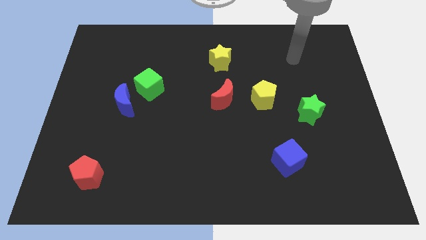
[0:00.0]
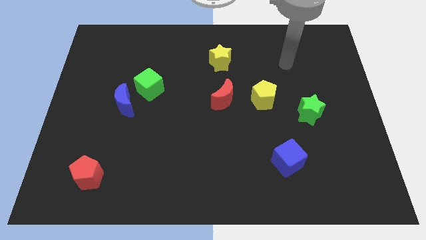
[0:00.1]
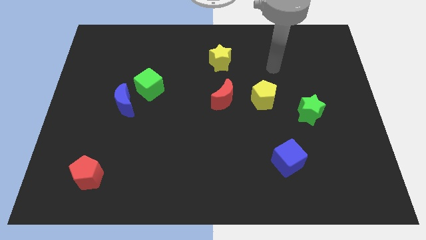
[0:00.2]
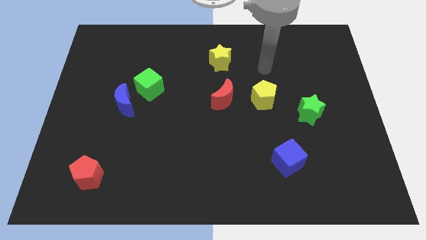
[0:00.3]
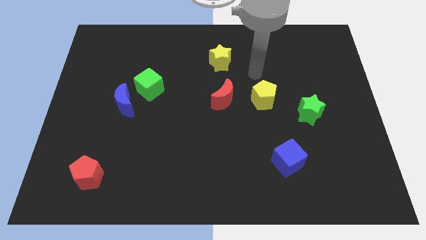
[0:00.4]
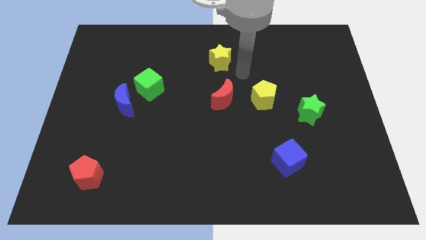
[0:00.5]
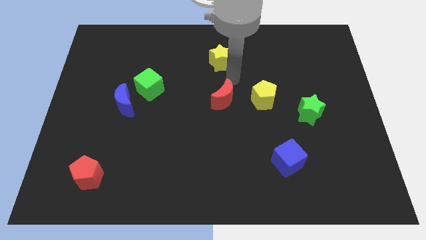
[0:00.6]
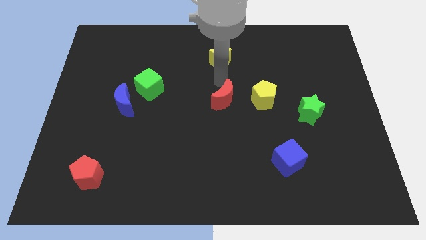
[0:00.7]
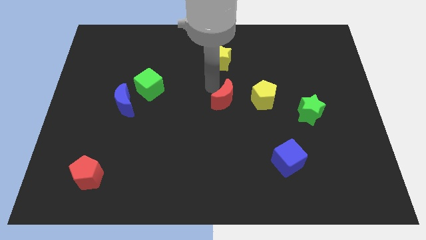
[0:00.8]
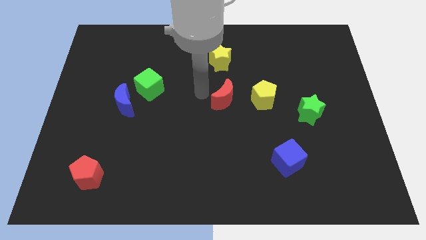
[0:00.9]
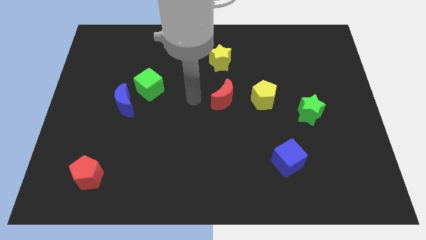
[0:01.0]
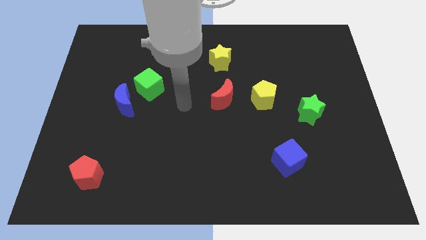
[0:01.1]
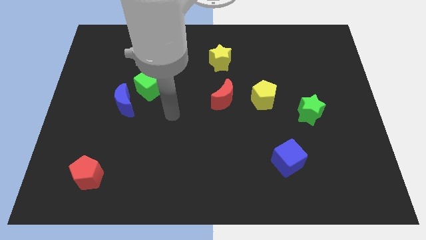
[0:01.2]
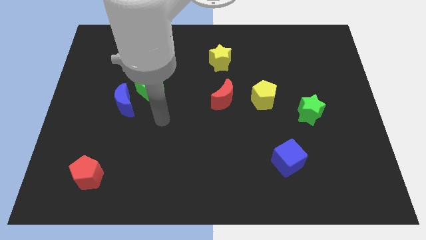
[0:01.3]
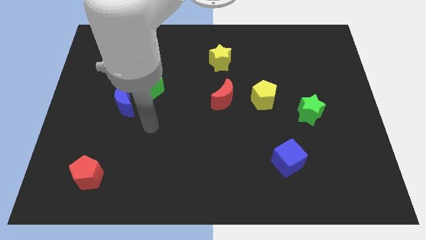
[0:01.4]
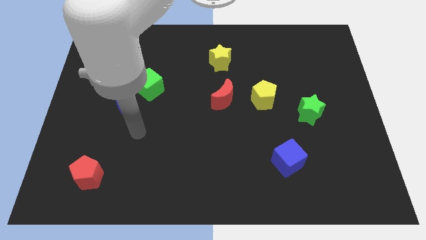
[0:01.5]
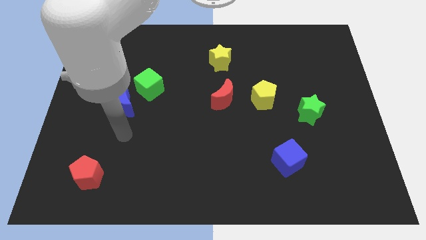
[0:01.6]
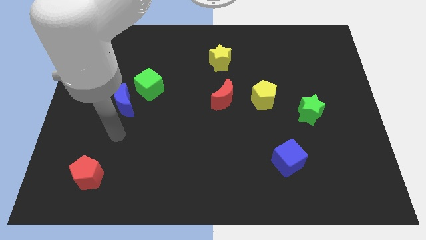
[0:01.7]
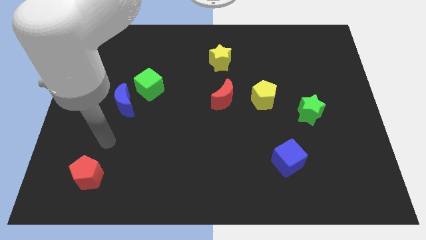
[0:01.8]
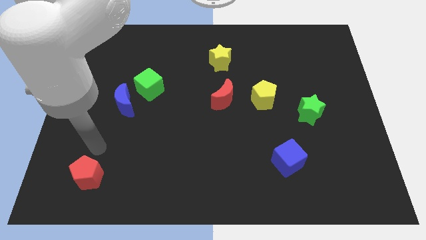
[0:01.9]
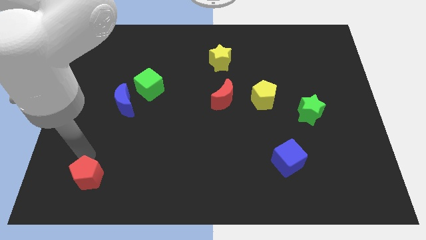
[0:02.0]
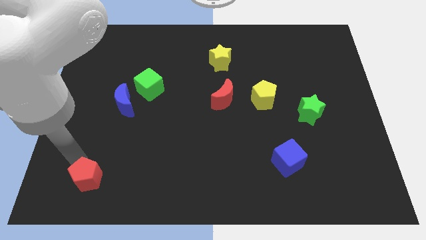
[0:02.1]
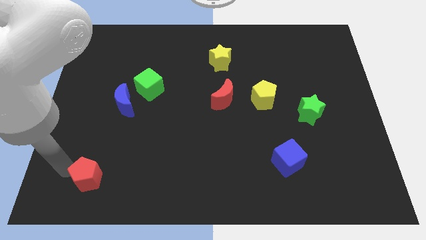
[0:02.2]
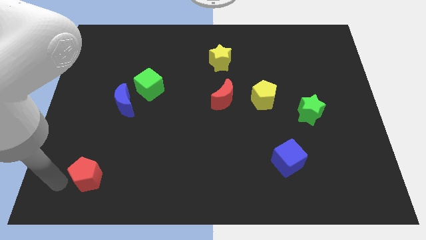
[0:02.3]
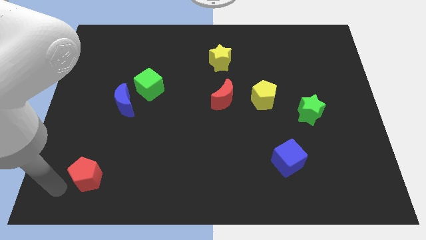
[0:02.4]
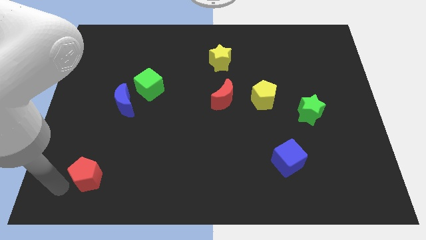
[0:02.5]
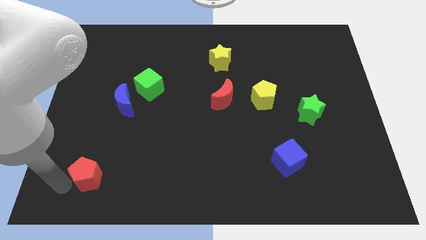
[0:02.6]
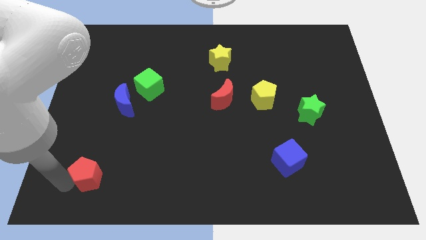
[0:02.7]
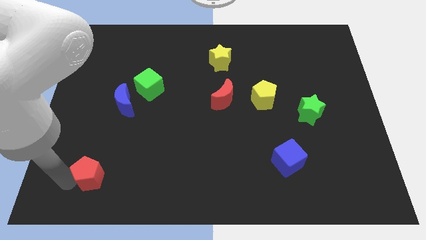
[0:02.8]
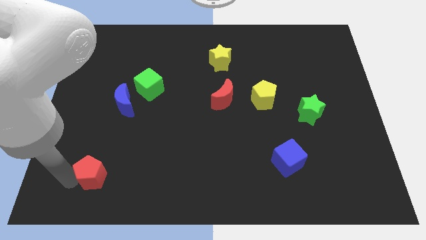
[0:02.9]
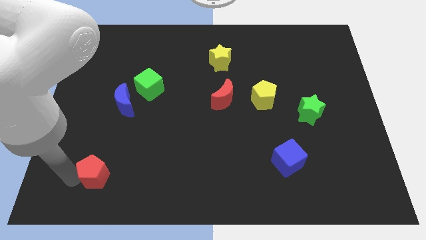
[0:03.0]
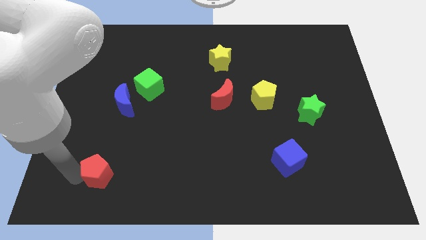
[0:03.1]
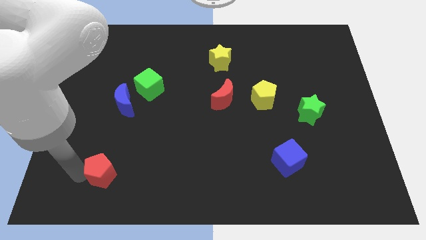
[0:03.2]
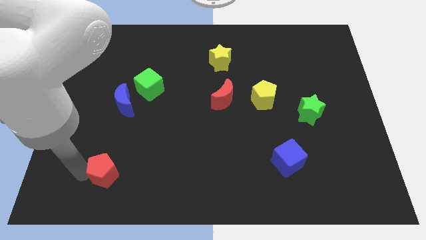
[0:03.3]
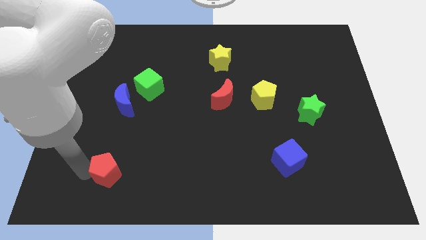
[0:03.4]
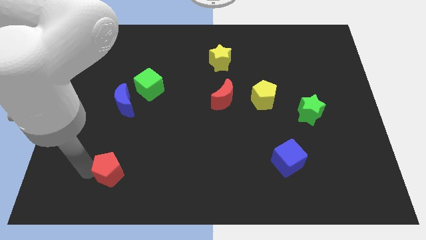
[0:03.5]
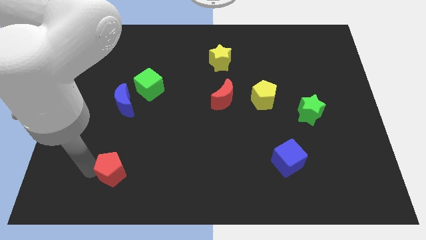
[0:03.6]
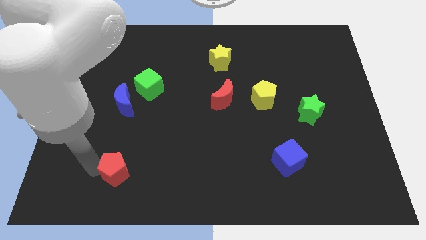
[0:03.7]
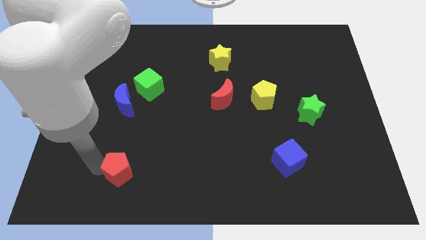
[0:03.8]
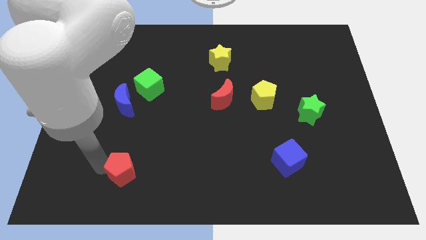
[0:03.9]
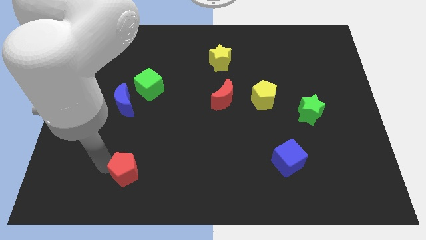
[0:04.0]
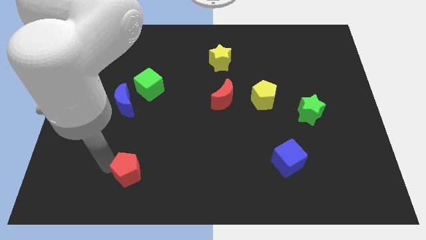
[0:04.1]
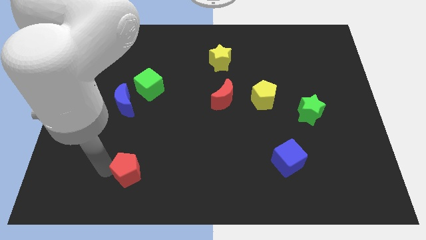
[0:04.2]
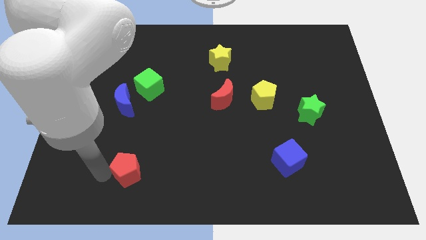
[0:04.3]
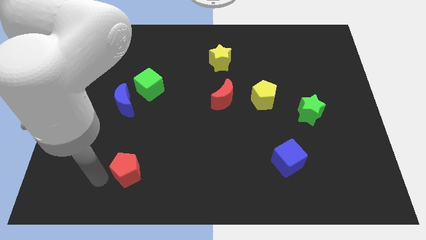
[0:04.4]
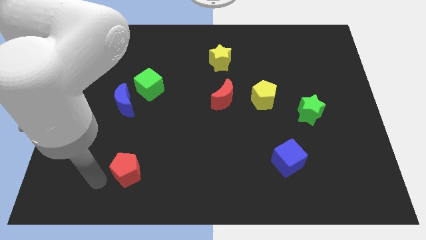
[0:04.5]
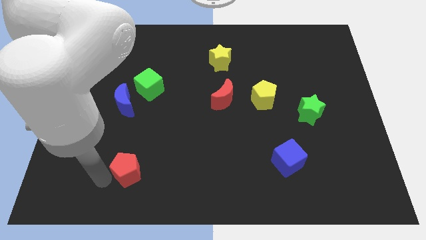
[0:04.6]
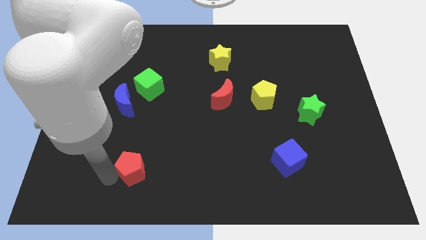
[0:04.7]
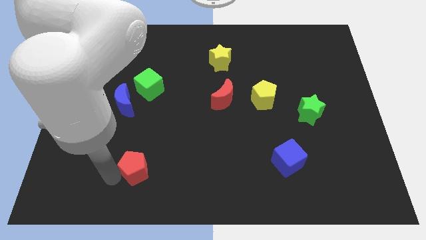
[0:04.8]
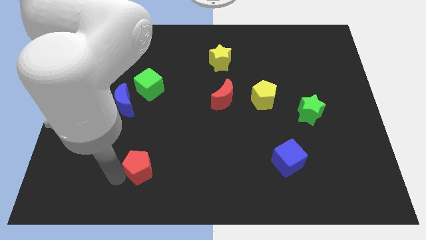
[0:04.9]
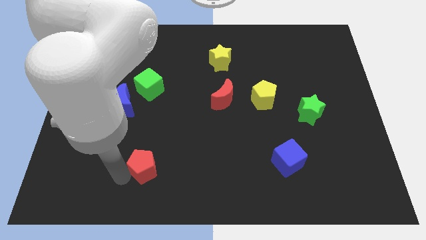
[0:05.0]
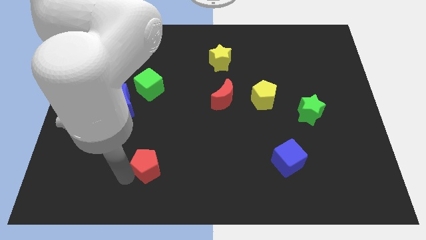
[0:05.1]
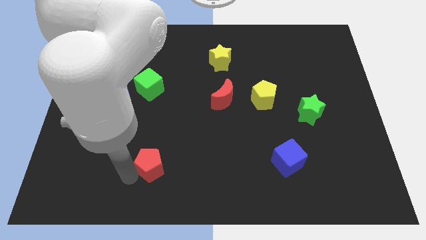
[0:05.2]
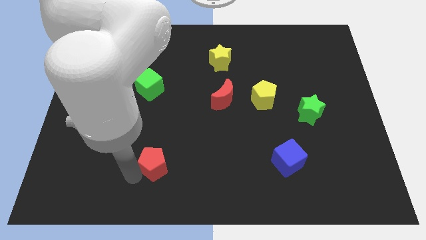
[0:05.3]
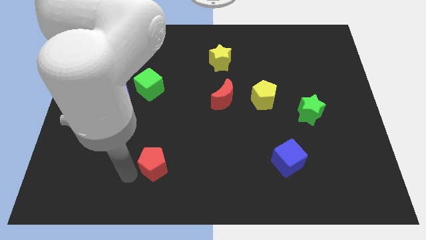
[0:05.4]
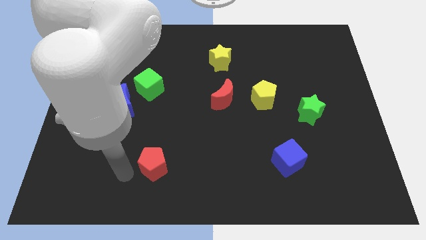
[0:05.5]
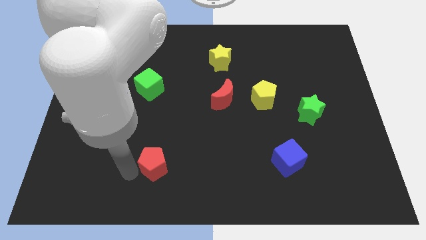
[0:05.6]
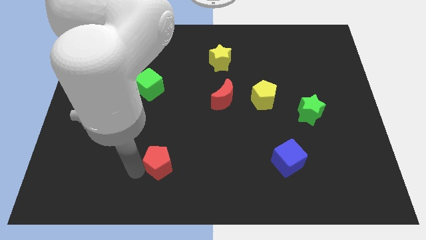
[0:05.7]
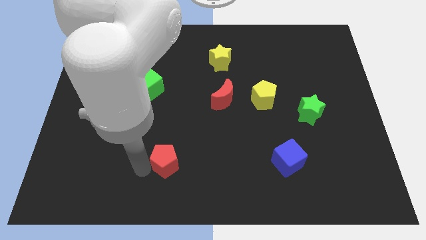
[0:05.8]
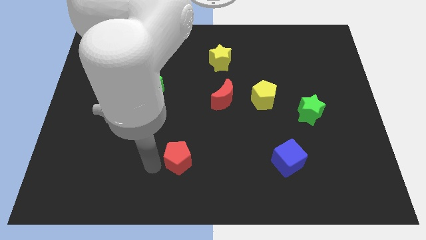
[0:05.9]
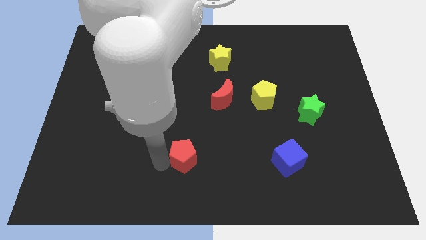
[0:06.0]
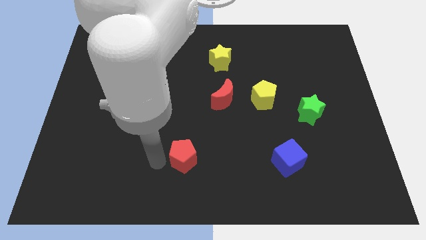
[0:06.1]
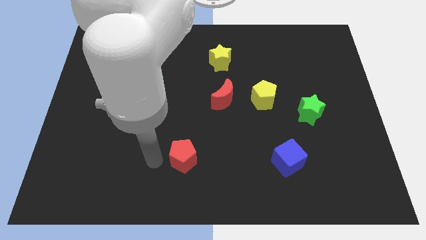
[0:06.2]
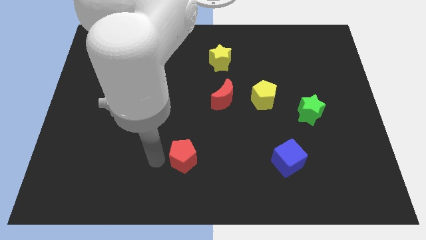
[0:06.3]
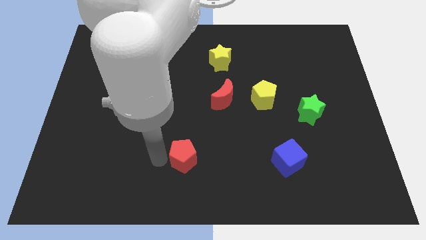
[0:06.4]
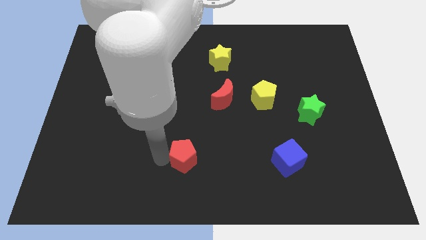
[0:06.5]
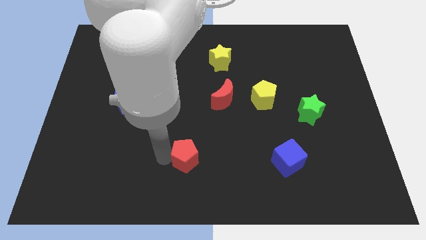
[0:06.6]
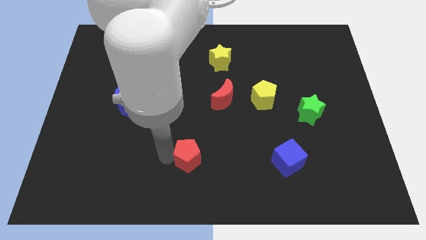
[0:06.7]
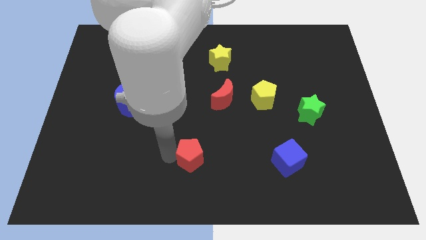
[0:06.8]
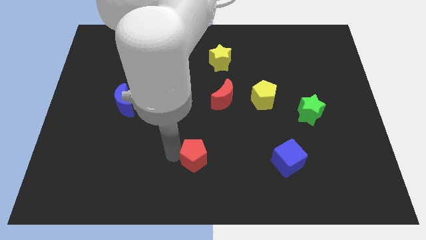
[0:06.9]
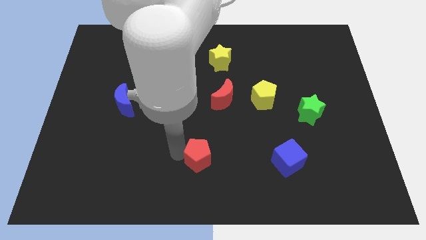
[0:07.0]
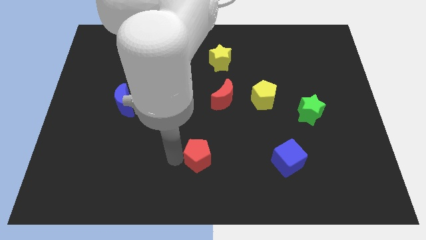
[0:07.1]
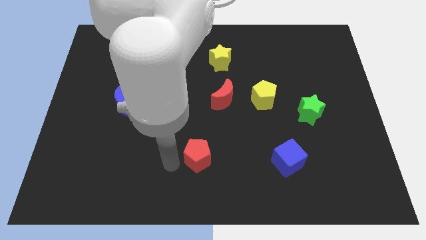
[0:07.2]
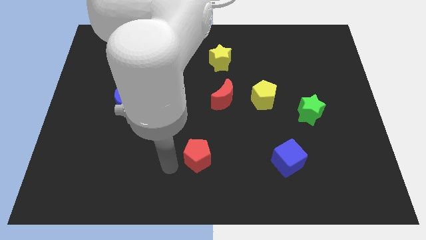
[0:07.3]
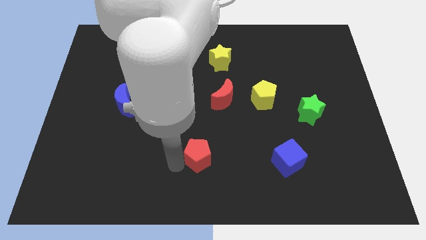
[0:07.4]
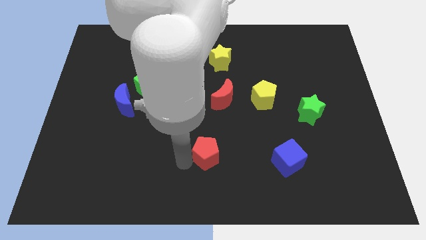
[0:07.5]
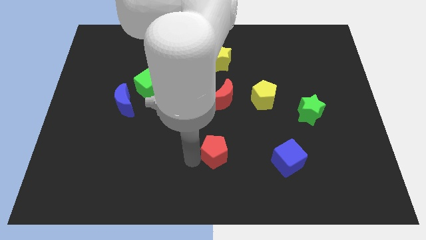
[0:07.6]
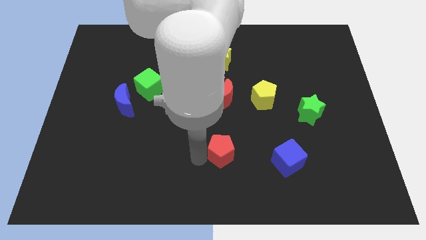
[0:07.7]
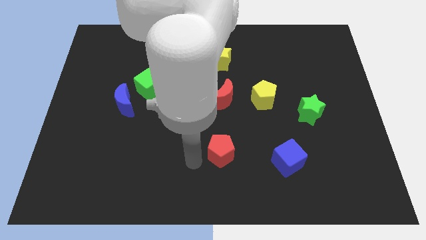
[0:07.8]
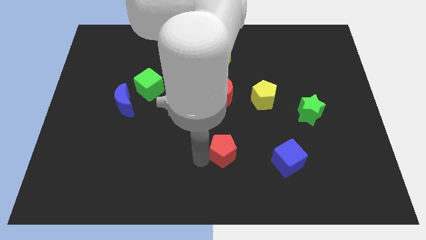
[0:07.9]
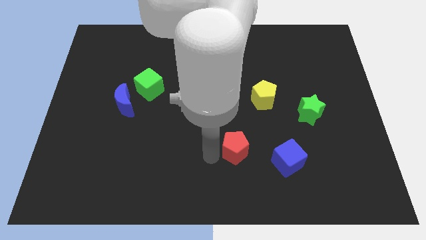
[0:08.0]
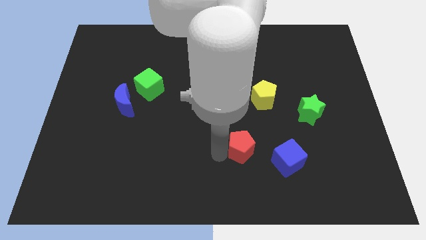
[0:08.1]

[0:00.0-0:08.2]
push the red pentagon to the top left side of the blue cube
